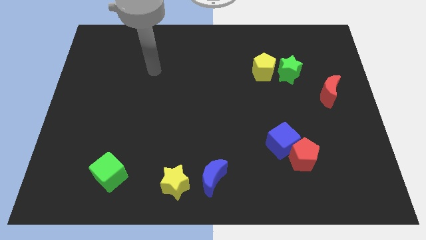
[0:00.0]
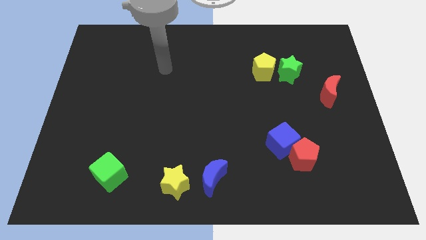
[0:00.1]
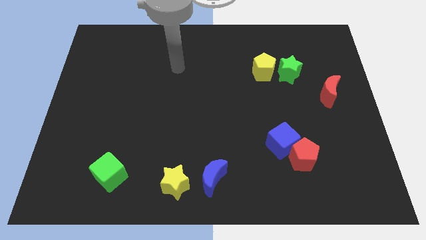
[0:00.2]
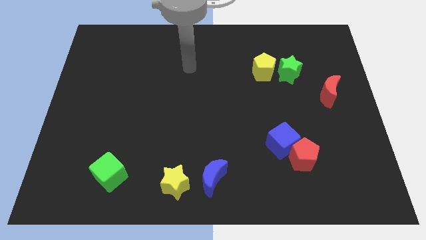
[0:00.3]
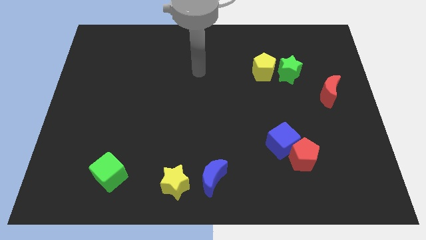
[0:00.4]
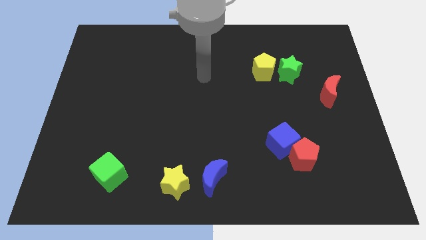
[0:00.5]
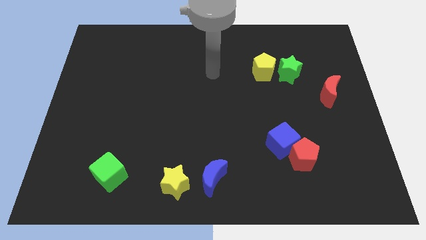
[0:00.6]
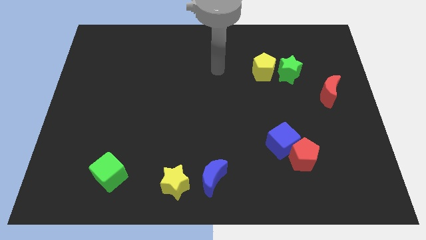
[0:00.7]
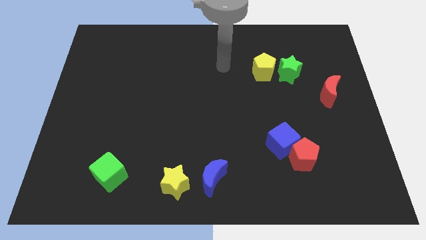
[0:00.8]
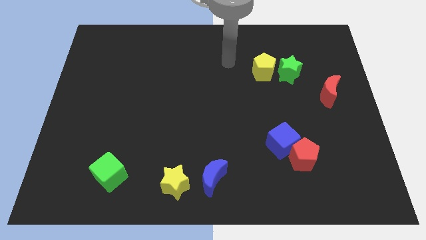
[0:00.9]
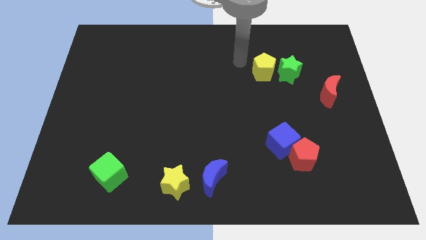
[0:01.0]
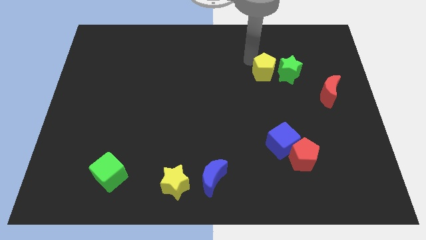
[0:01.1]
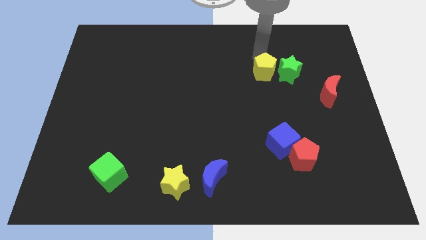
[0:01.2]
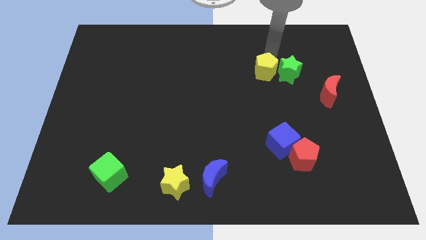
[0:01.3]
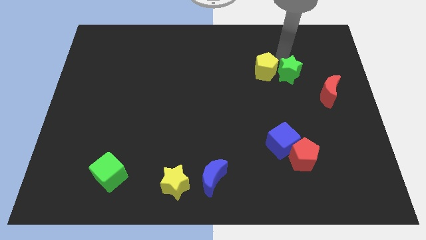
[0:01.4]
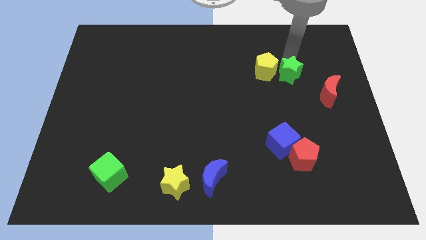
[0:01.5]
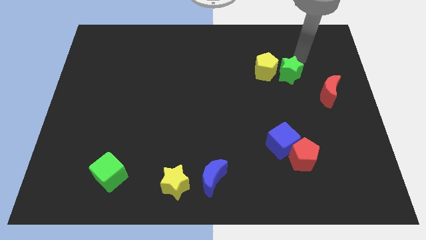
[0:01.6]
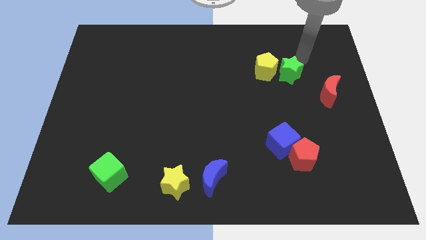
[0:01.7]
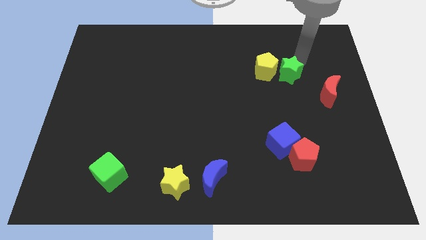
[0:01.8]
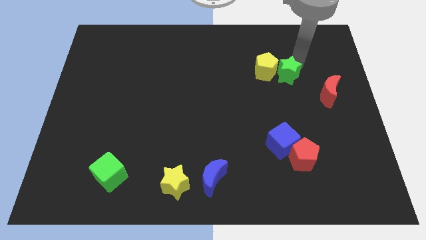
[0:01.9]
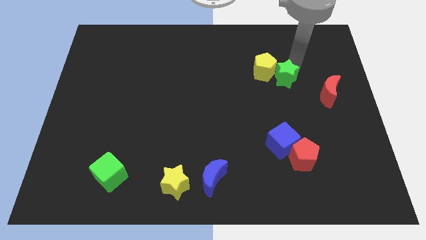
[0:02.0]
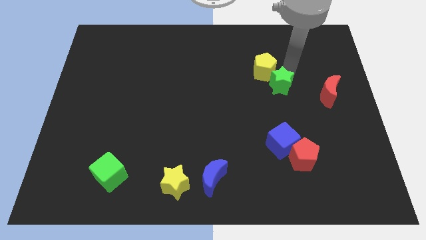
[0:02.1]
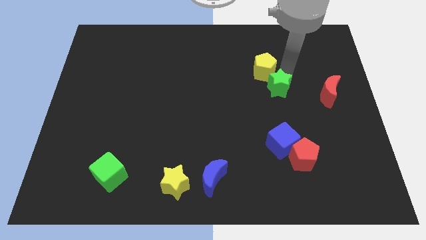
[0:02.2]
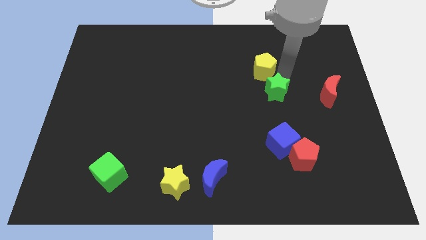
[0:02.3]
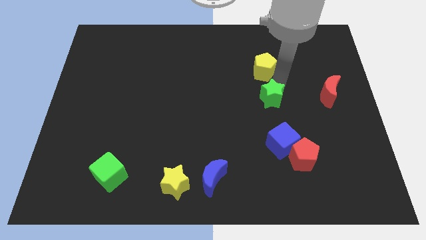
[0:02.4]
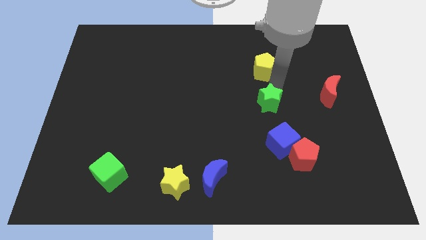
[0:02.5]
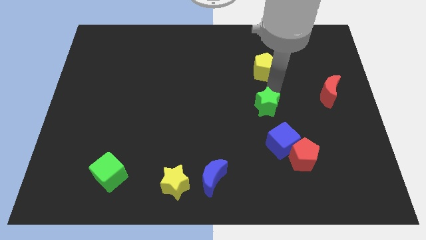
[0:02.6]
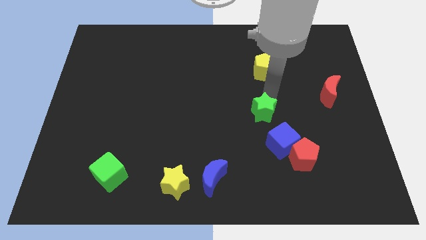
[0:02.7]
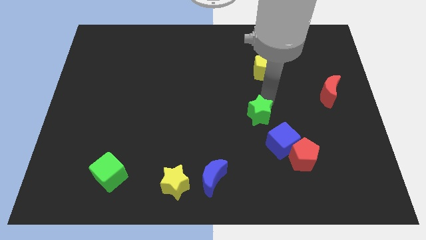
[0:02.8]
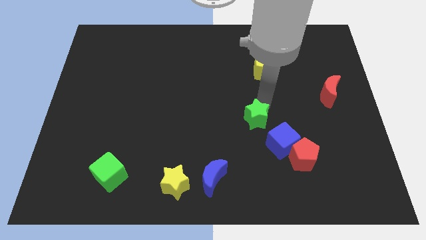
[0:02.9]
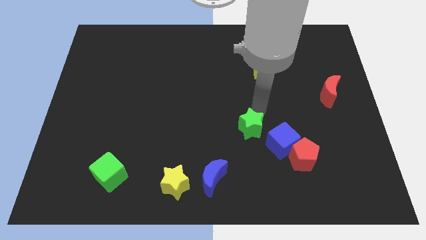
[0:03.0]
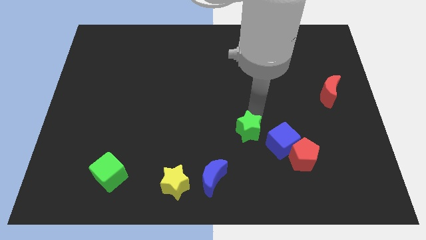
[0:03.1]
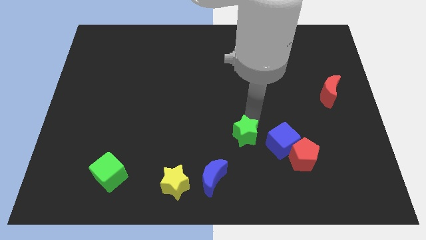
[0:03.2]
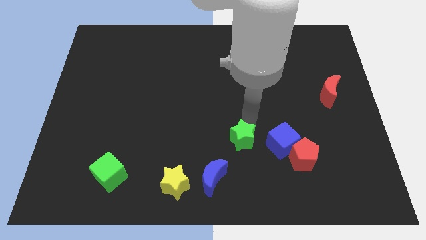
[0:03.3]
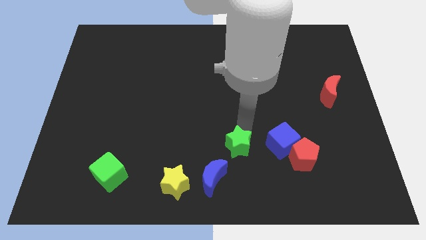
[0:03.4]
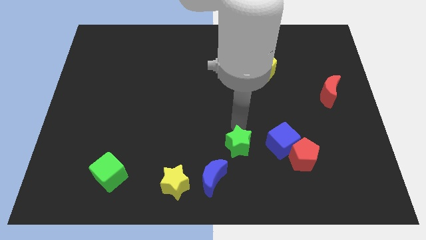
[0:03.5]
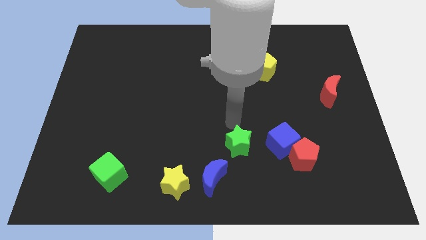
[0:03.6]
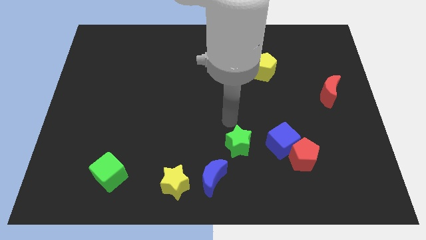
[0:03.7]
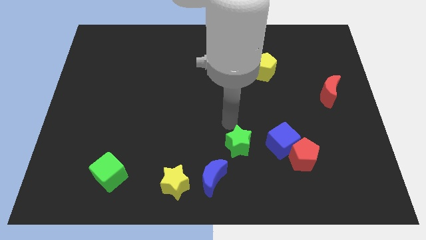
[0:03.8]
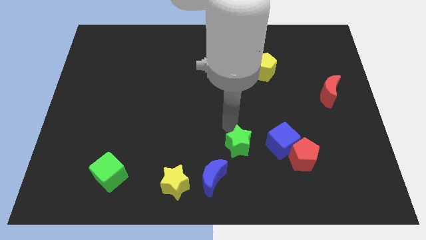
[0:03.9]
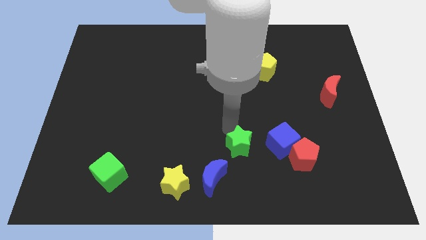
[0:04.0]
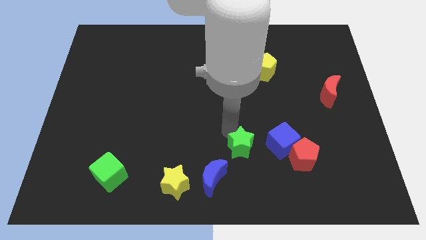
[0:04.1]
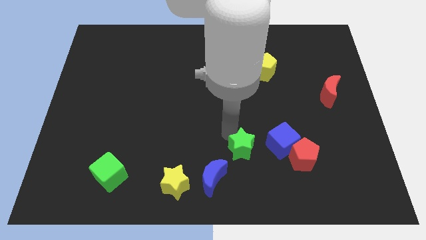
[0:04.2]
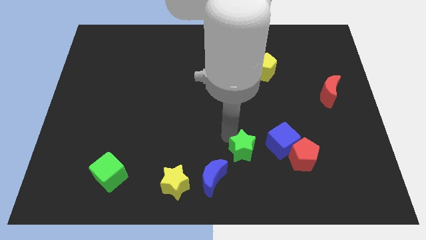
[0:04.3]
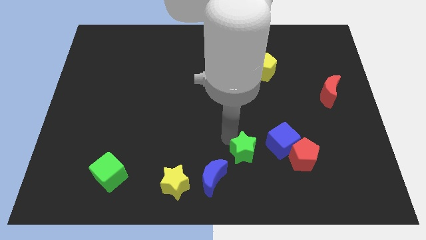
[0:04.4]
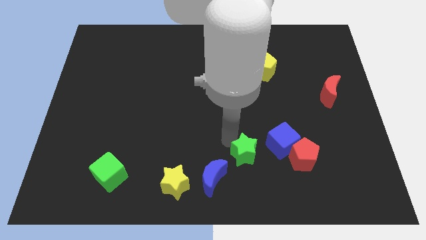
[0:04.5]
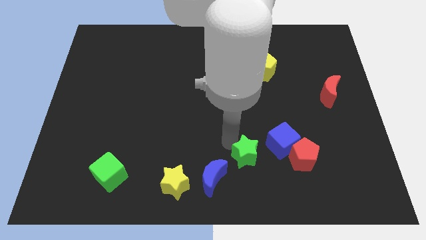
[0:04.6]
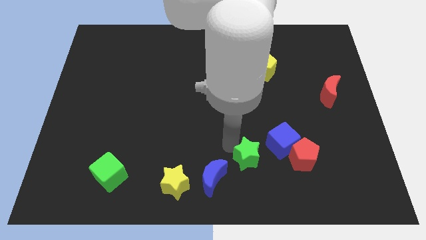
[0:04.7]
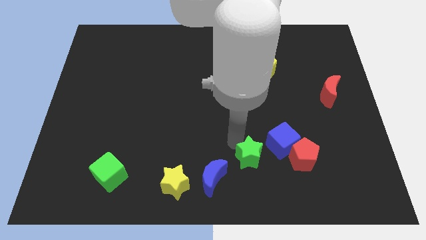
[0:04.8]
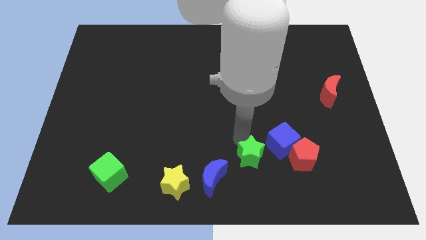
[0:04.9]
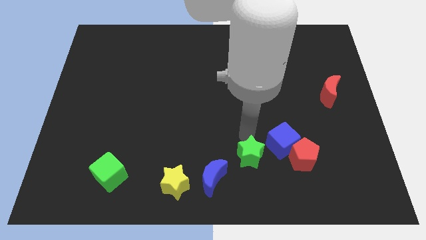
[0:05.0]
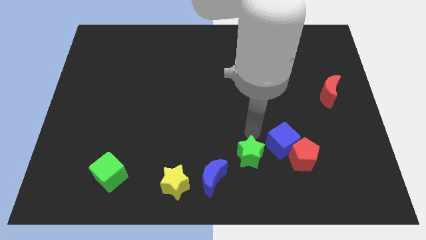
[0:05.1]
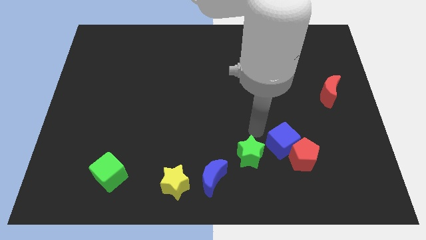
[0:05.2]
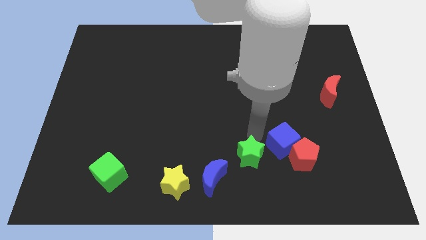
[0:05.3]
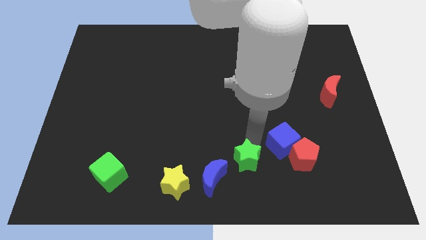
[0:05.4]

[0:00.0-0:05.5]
push the green star to the bottom
